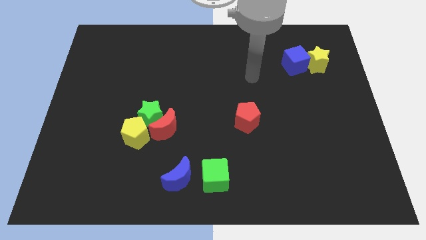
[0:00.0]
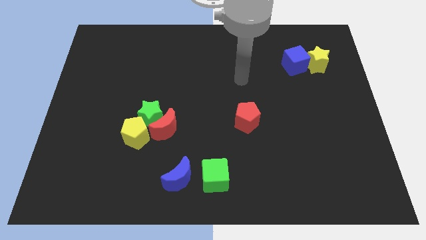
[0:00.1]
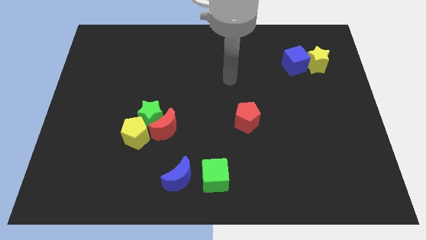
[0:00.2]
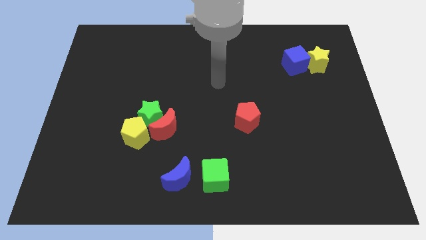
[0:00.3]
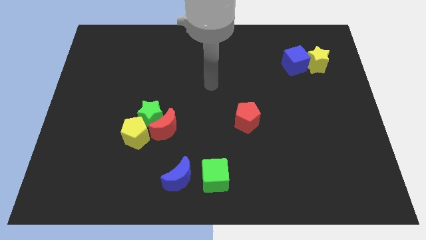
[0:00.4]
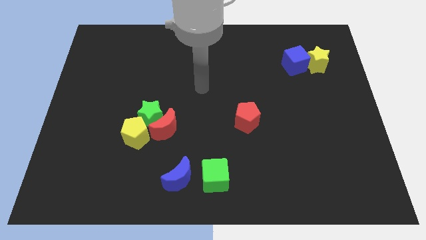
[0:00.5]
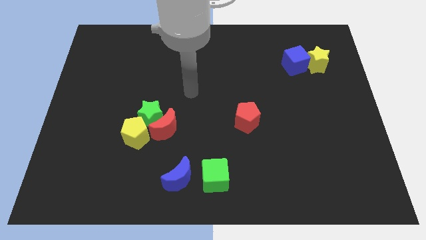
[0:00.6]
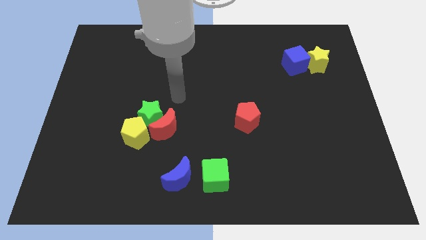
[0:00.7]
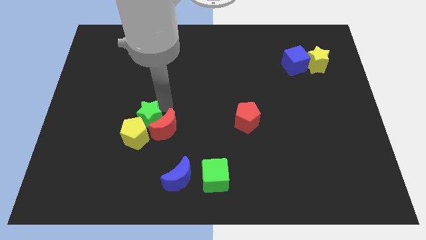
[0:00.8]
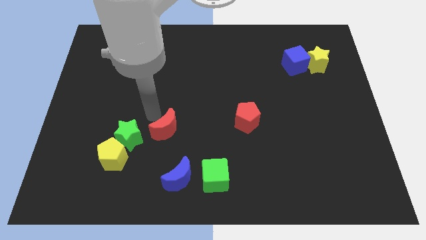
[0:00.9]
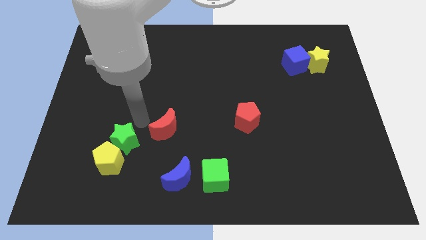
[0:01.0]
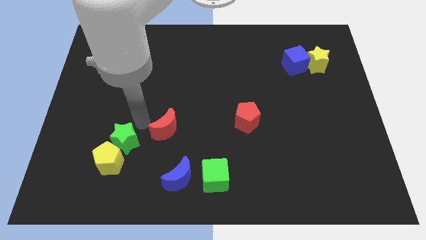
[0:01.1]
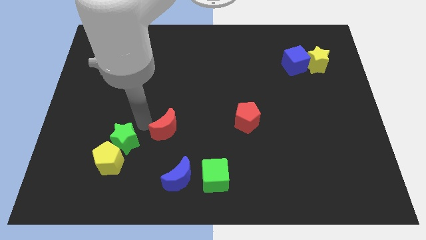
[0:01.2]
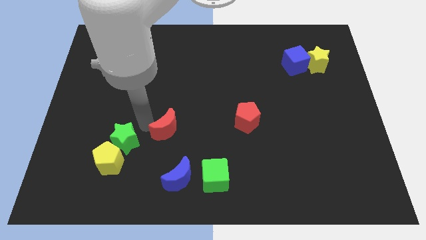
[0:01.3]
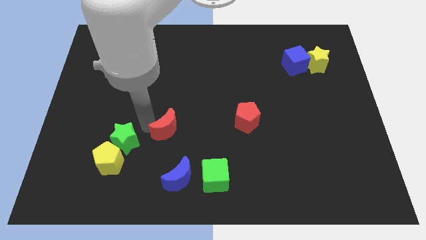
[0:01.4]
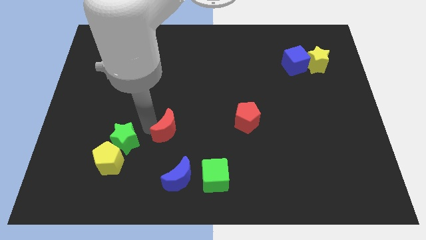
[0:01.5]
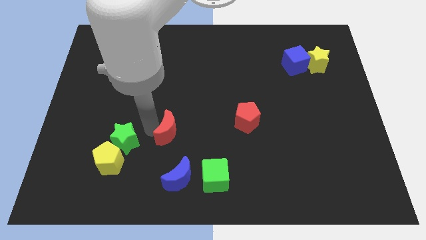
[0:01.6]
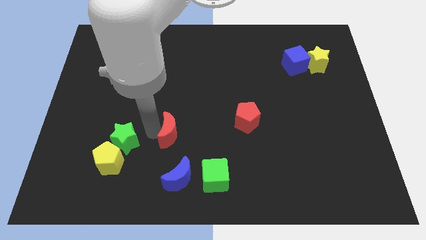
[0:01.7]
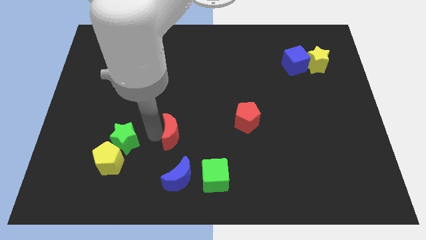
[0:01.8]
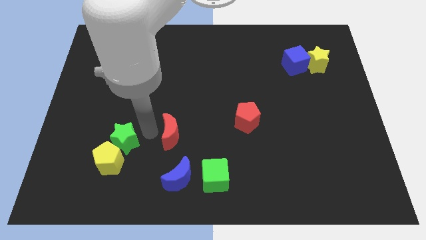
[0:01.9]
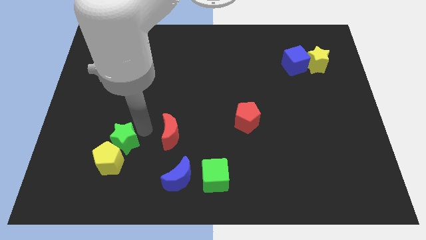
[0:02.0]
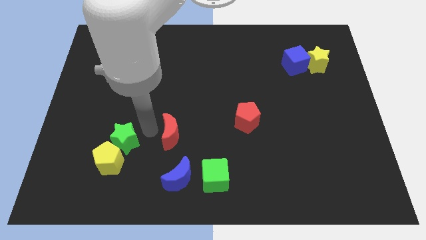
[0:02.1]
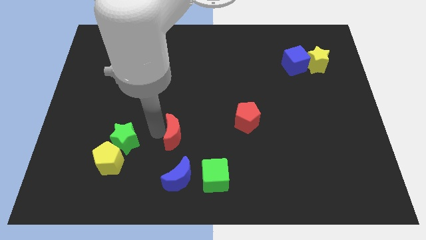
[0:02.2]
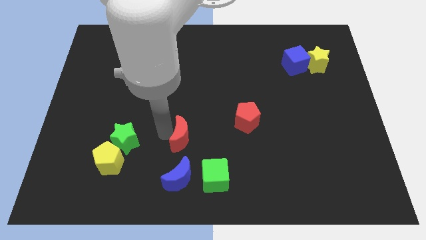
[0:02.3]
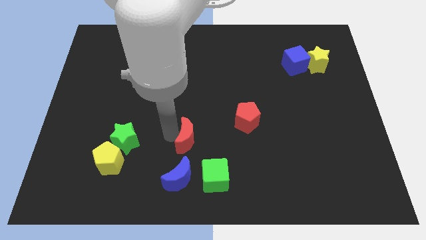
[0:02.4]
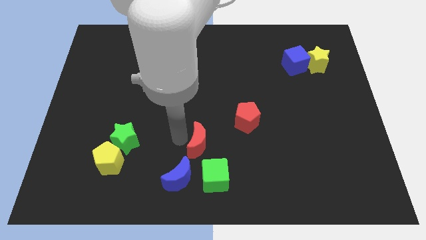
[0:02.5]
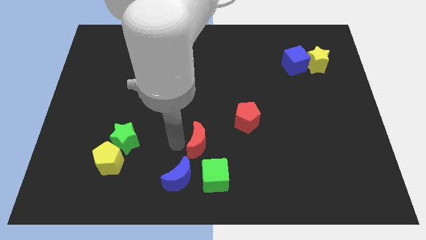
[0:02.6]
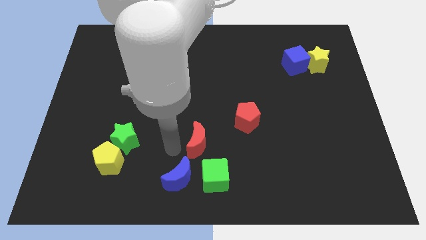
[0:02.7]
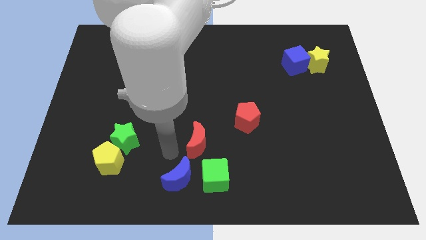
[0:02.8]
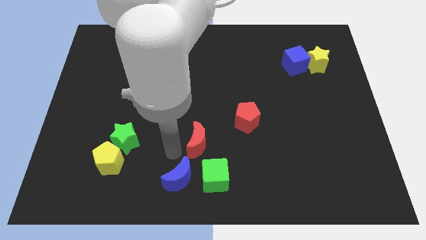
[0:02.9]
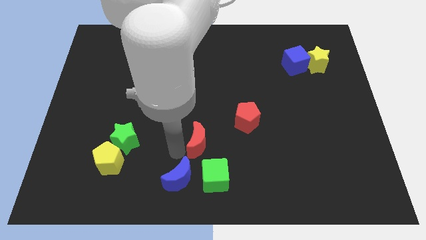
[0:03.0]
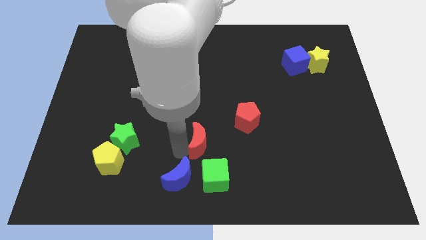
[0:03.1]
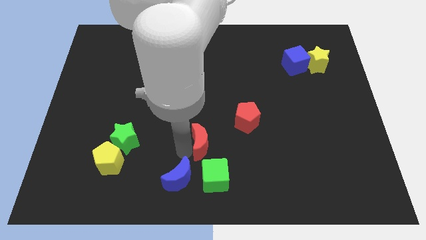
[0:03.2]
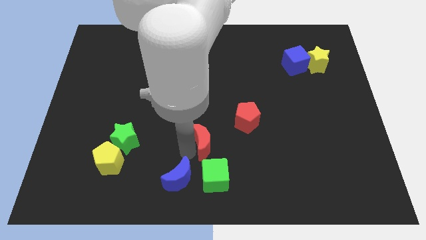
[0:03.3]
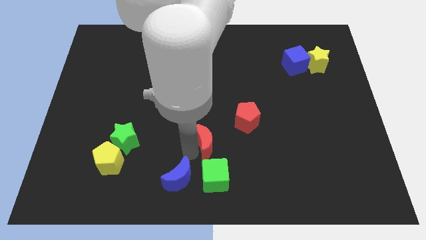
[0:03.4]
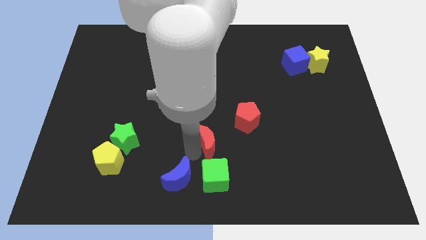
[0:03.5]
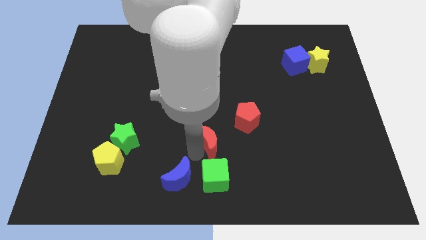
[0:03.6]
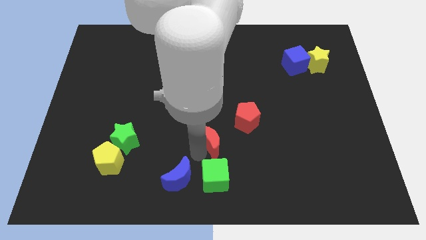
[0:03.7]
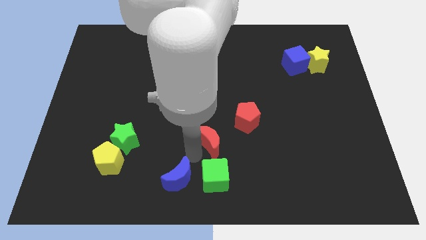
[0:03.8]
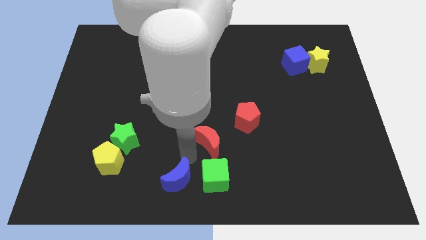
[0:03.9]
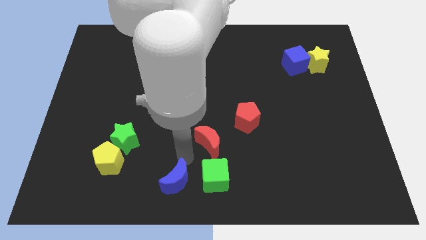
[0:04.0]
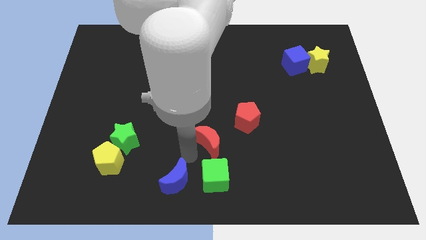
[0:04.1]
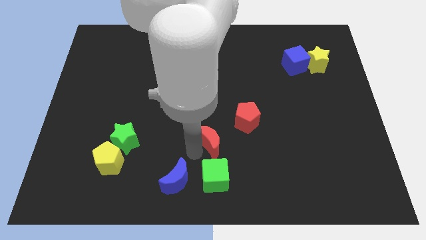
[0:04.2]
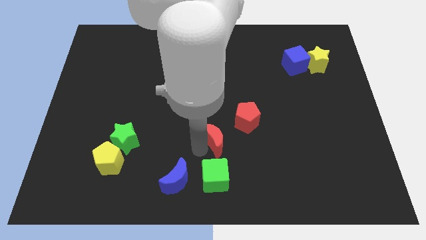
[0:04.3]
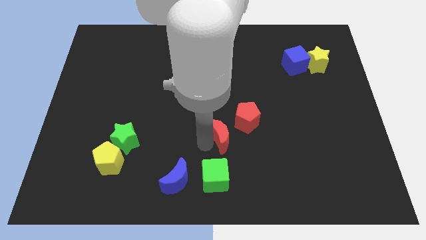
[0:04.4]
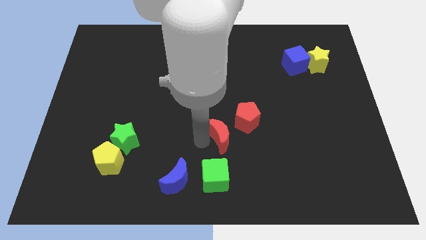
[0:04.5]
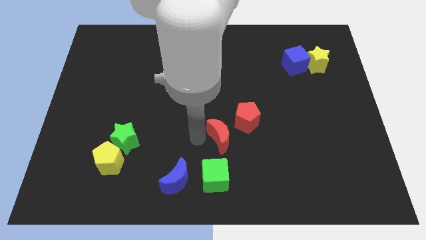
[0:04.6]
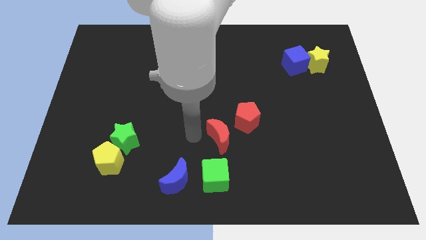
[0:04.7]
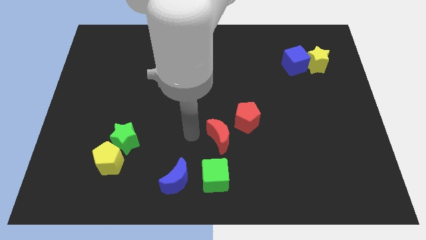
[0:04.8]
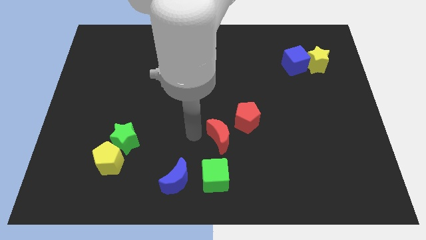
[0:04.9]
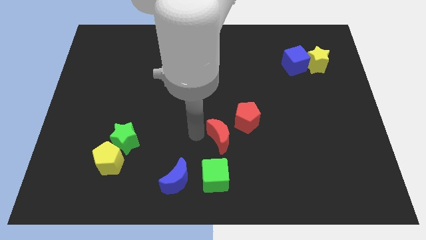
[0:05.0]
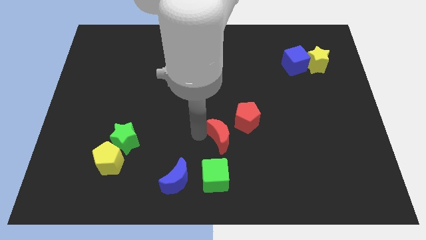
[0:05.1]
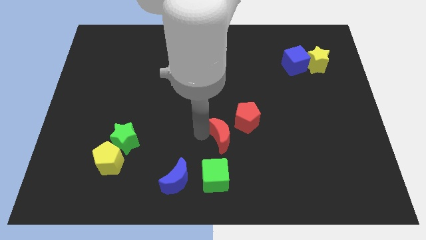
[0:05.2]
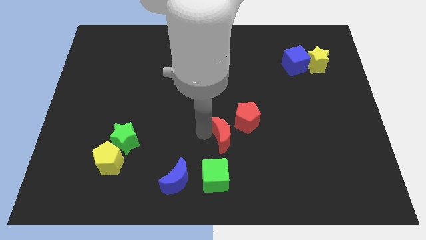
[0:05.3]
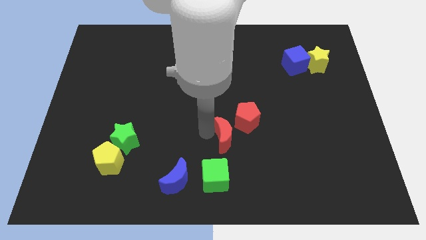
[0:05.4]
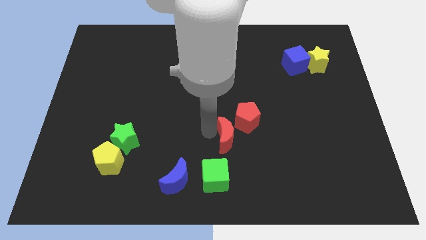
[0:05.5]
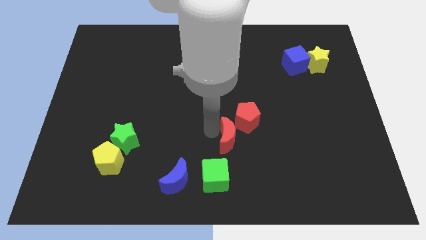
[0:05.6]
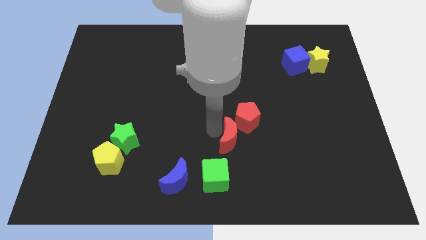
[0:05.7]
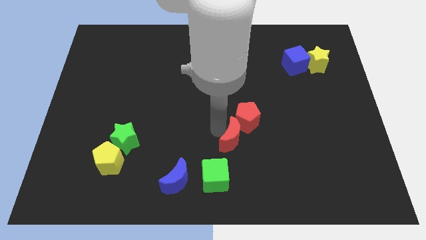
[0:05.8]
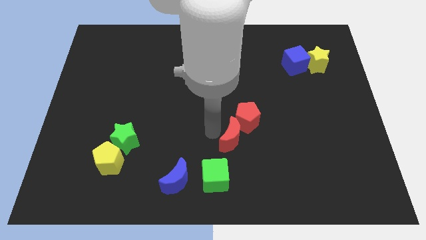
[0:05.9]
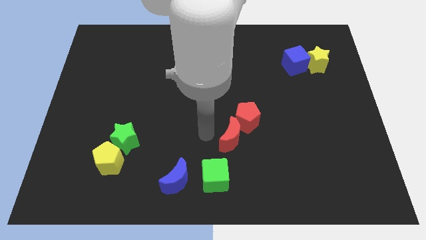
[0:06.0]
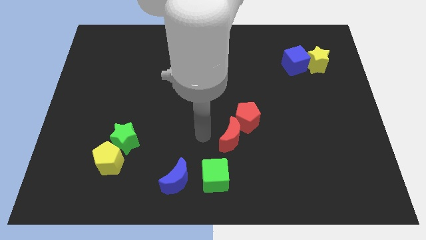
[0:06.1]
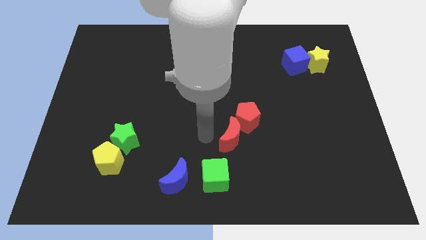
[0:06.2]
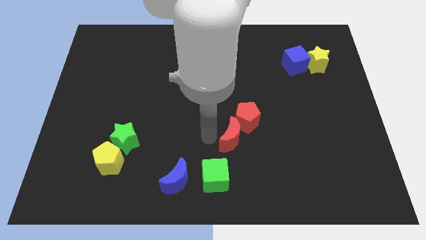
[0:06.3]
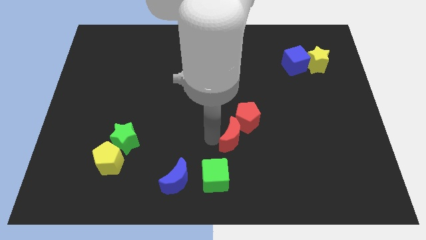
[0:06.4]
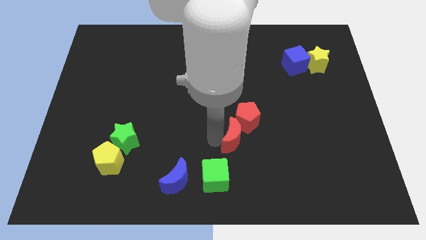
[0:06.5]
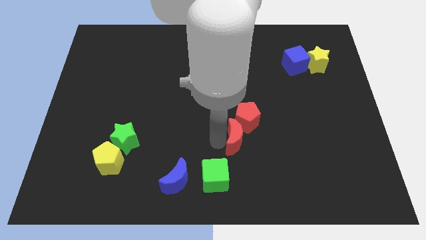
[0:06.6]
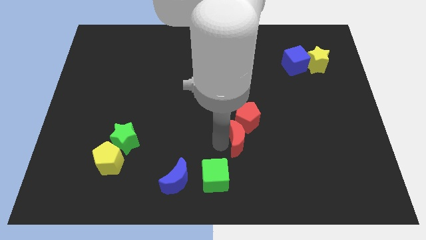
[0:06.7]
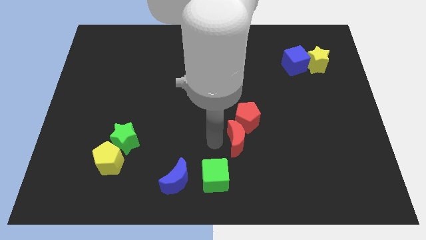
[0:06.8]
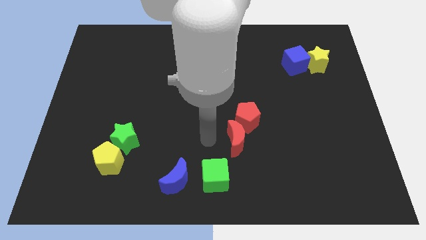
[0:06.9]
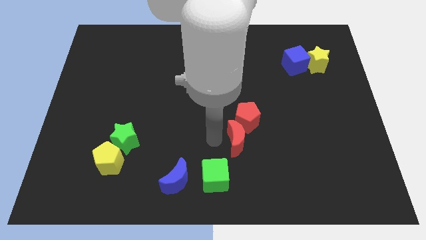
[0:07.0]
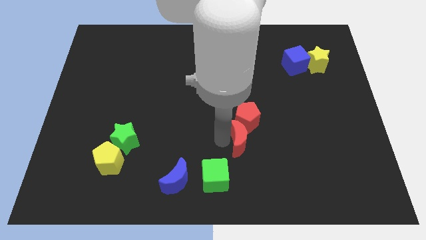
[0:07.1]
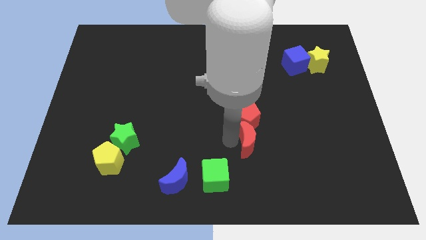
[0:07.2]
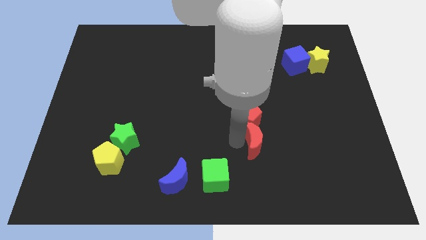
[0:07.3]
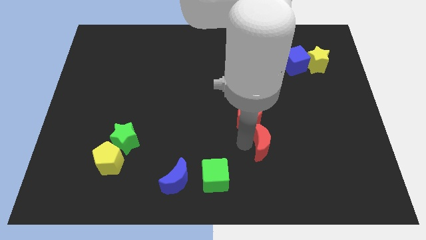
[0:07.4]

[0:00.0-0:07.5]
slide the red moon to the right

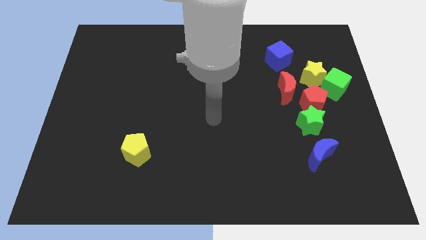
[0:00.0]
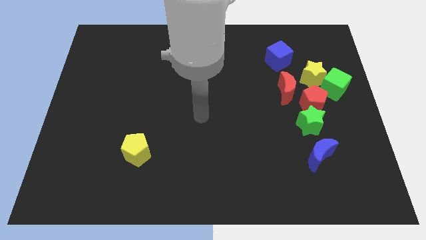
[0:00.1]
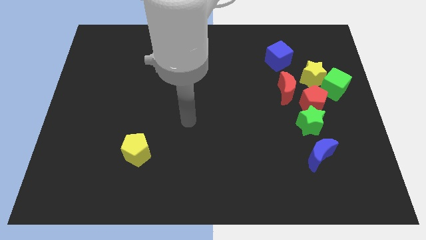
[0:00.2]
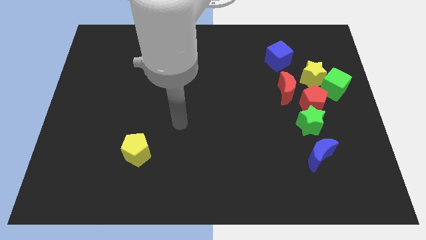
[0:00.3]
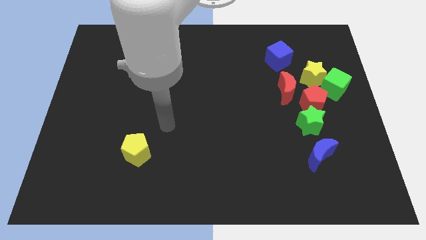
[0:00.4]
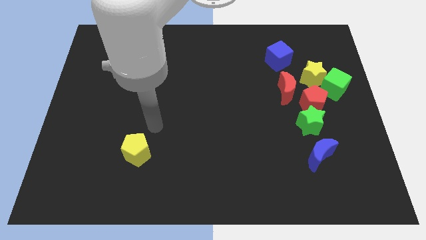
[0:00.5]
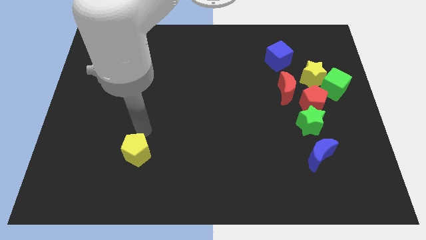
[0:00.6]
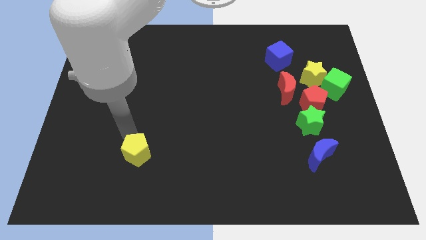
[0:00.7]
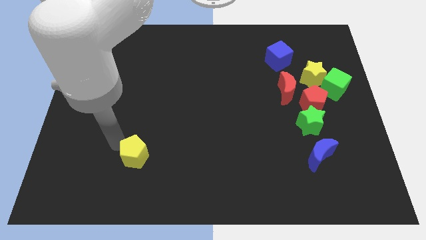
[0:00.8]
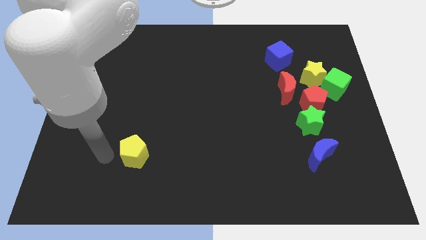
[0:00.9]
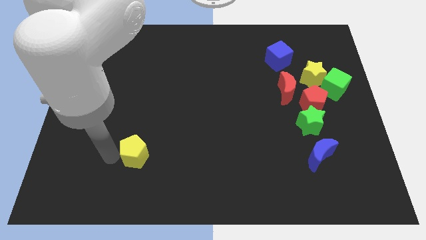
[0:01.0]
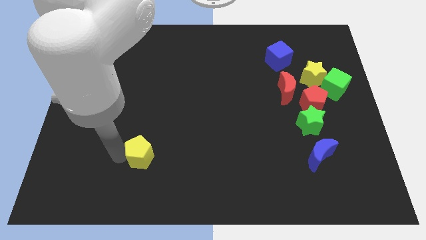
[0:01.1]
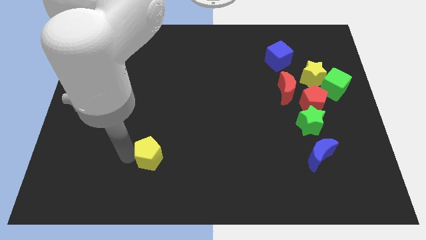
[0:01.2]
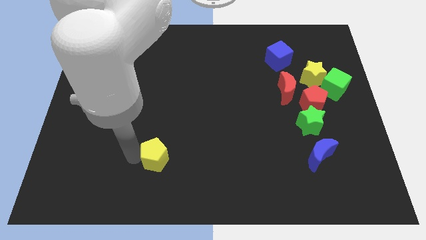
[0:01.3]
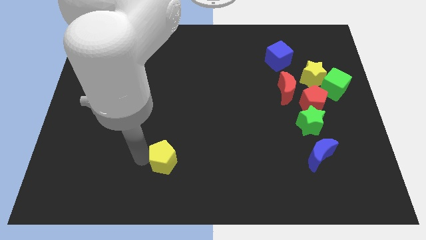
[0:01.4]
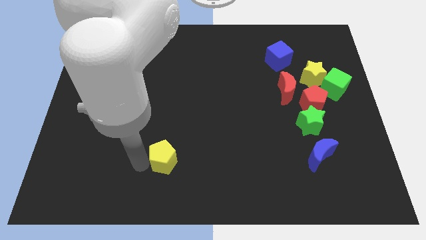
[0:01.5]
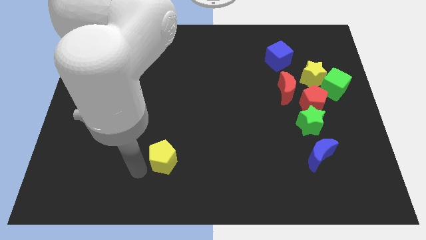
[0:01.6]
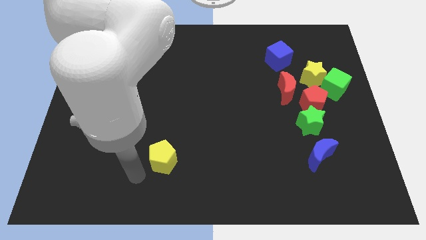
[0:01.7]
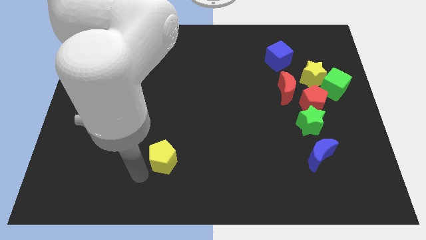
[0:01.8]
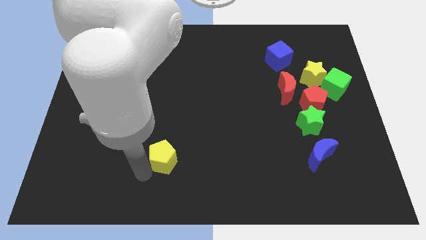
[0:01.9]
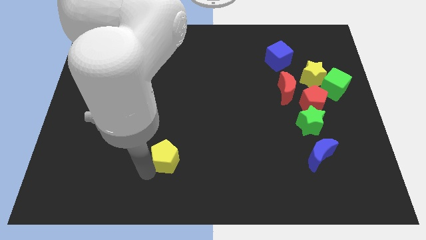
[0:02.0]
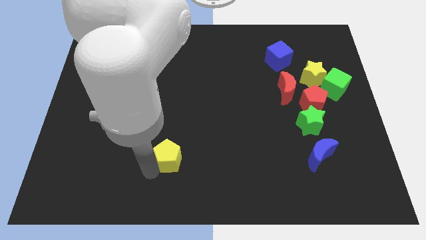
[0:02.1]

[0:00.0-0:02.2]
slightly slide the yellow pentagon to the right
